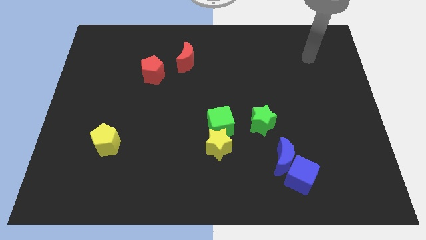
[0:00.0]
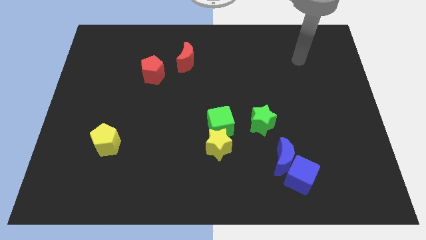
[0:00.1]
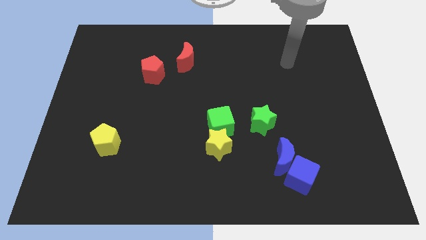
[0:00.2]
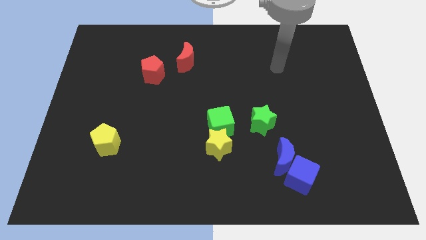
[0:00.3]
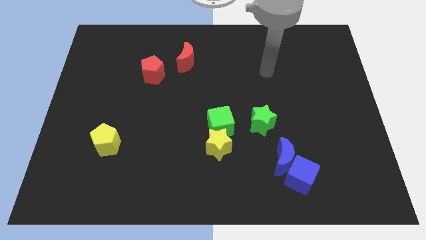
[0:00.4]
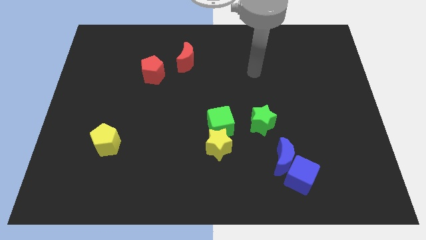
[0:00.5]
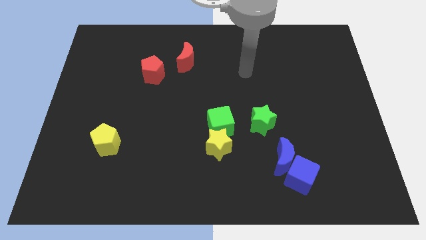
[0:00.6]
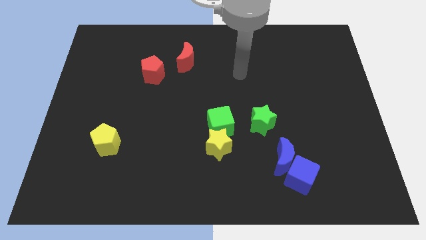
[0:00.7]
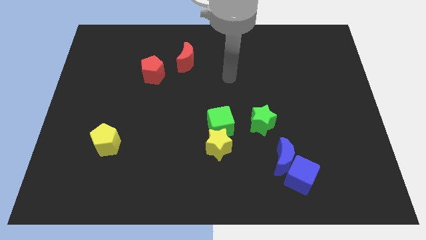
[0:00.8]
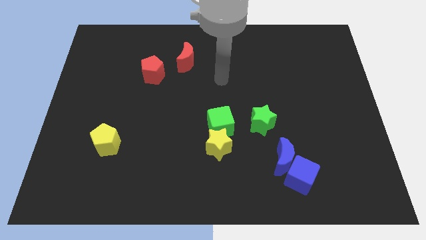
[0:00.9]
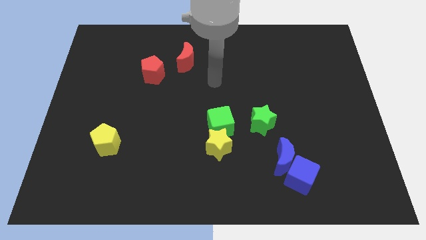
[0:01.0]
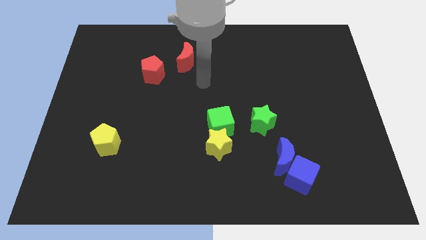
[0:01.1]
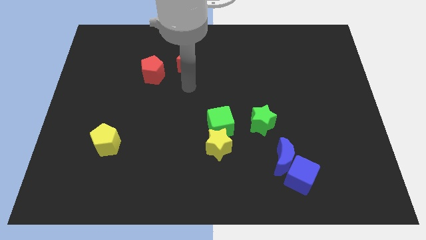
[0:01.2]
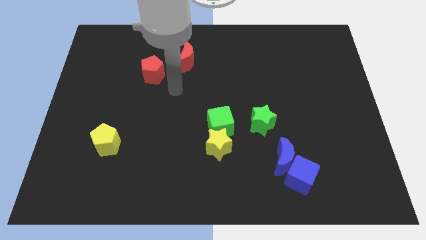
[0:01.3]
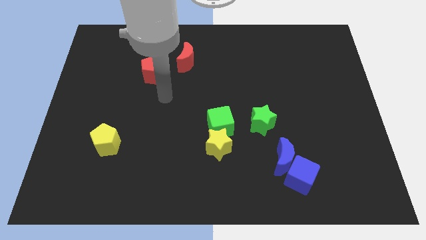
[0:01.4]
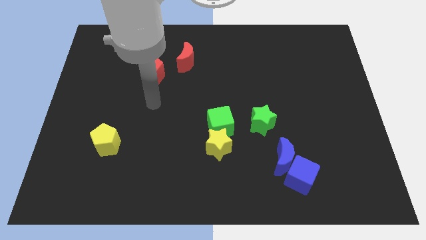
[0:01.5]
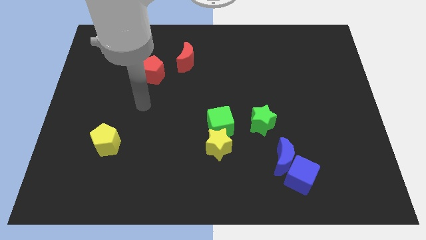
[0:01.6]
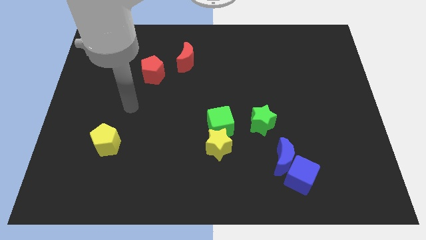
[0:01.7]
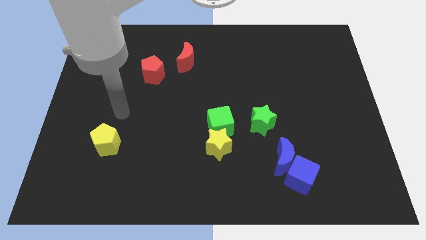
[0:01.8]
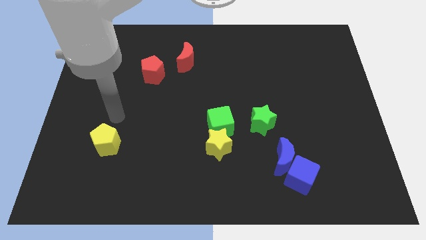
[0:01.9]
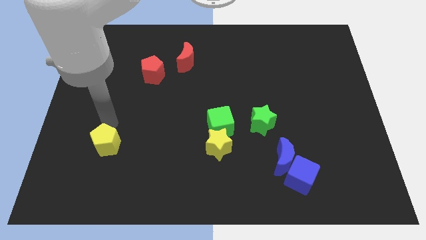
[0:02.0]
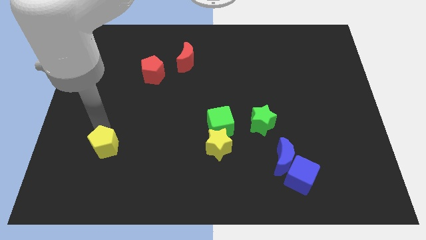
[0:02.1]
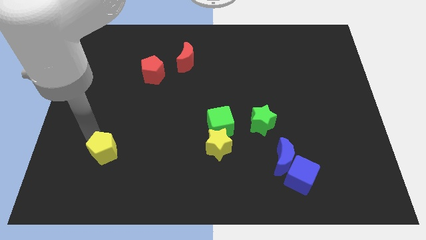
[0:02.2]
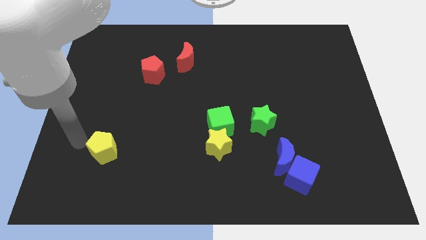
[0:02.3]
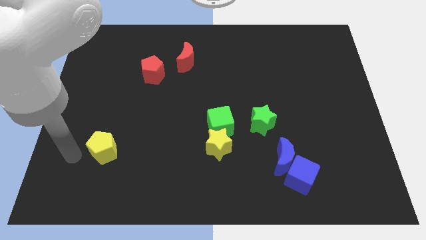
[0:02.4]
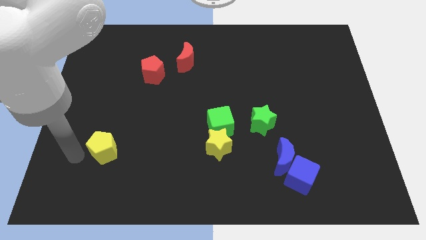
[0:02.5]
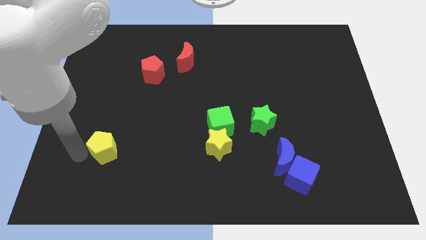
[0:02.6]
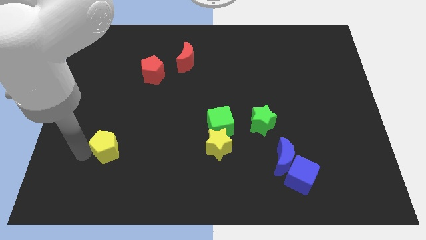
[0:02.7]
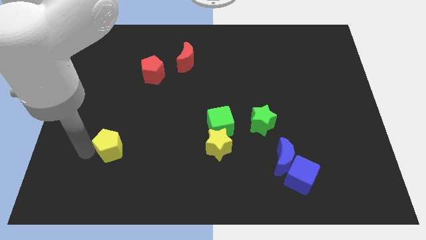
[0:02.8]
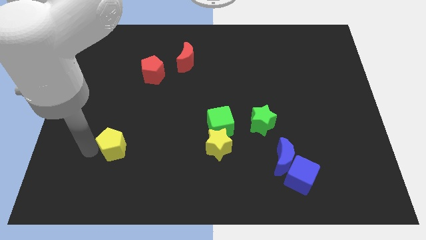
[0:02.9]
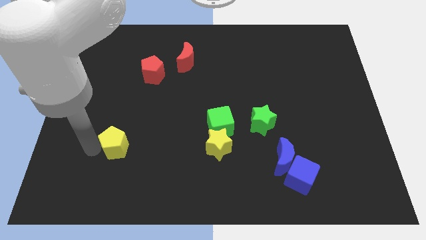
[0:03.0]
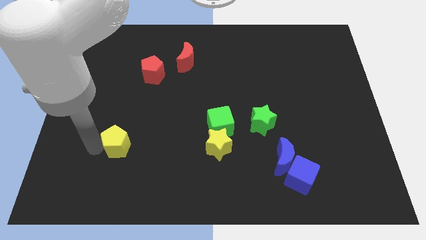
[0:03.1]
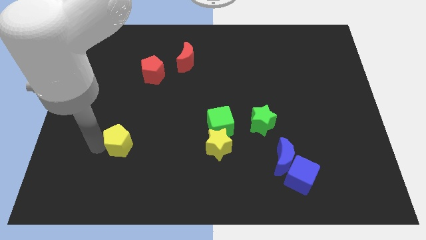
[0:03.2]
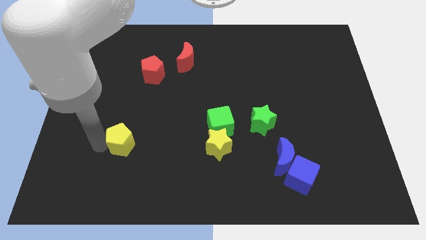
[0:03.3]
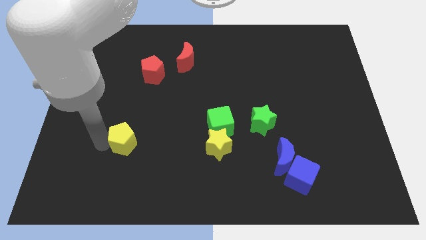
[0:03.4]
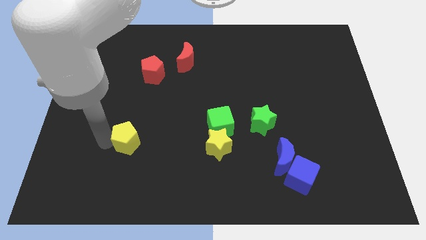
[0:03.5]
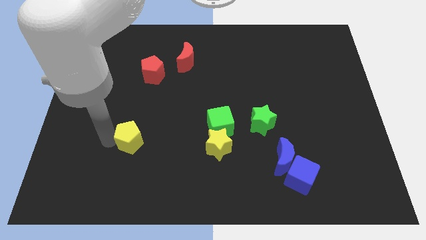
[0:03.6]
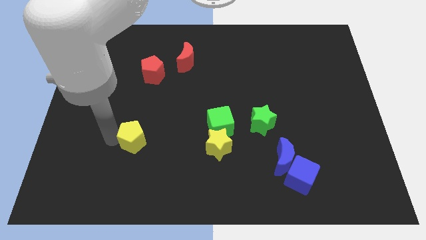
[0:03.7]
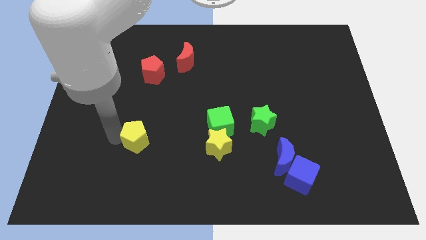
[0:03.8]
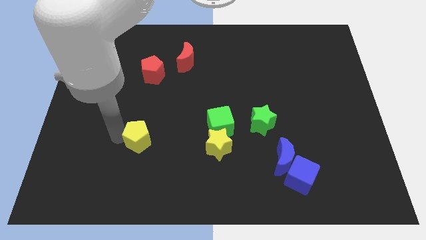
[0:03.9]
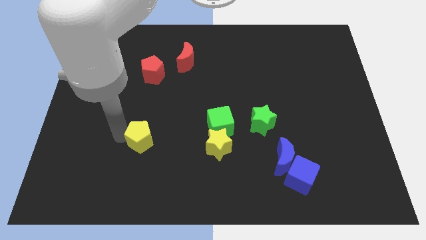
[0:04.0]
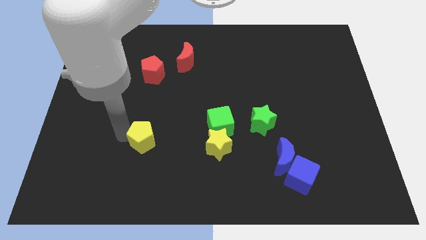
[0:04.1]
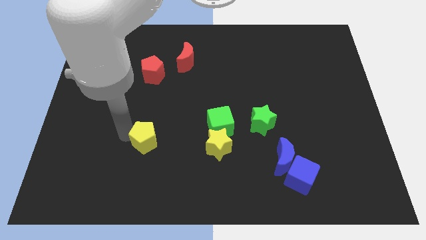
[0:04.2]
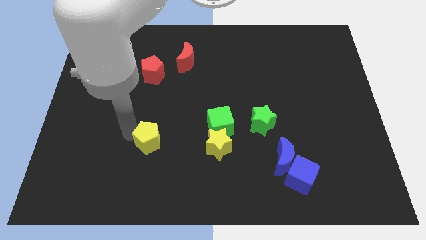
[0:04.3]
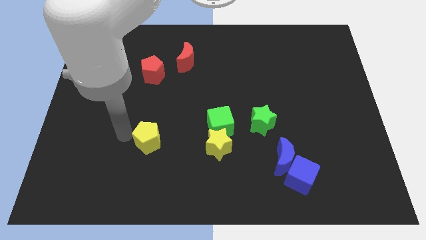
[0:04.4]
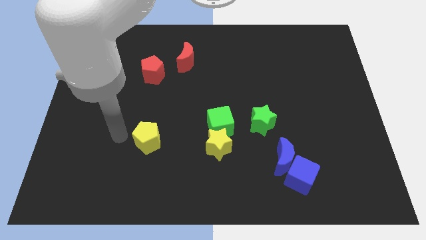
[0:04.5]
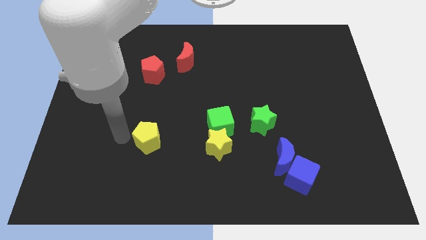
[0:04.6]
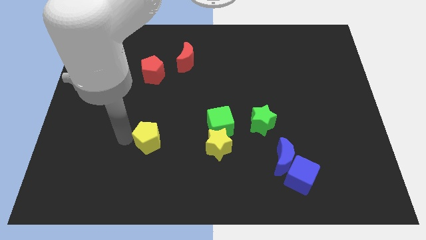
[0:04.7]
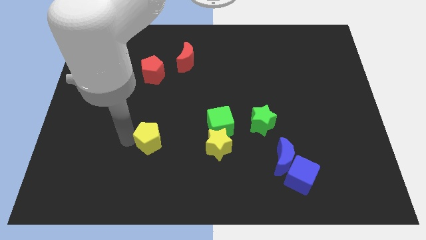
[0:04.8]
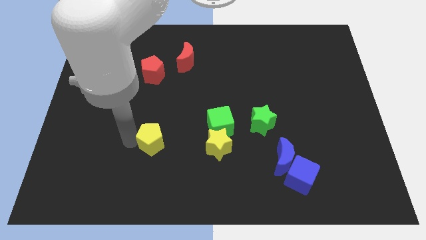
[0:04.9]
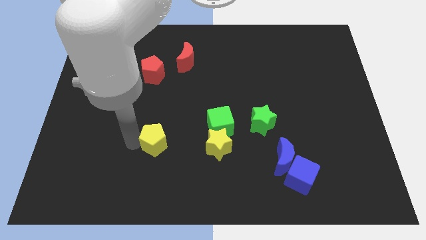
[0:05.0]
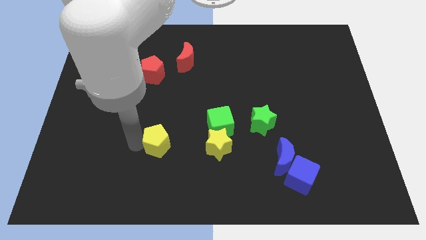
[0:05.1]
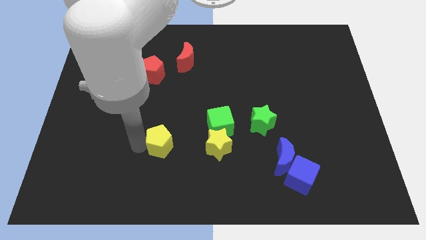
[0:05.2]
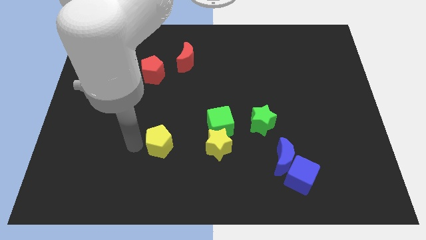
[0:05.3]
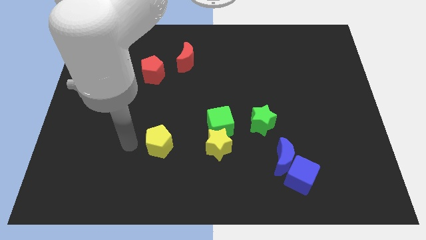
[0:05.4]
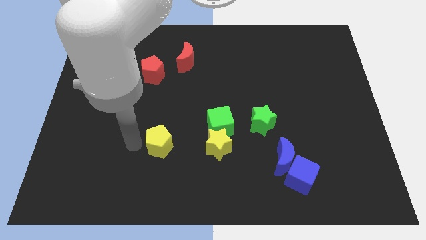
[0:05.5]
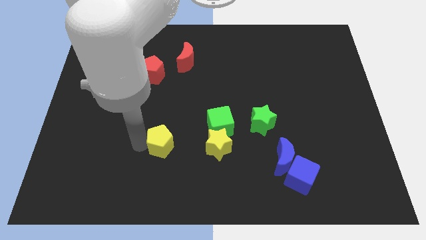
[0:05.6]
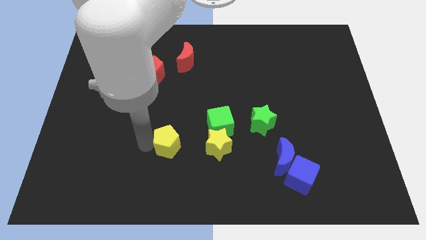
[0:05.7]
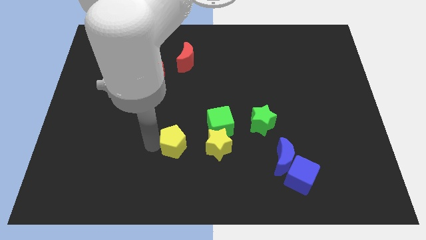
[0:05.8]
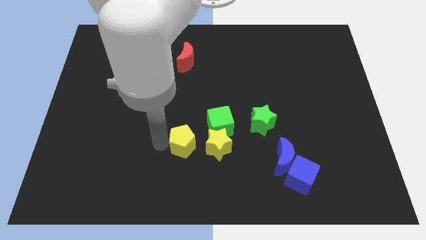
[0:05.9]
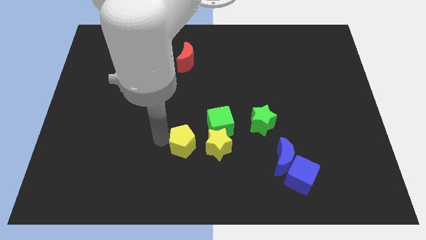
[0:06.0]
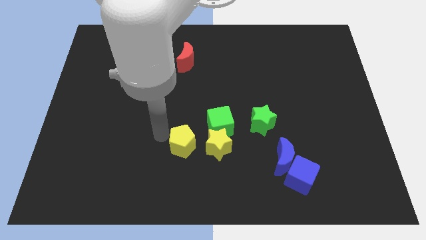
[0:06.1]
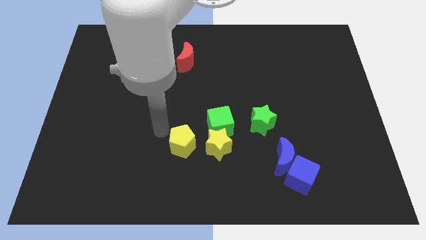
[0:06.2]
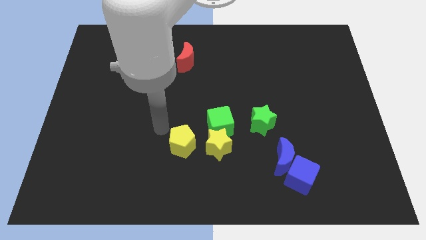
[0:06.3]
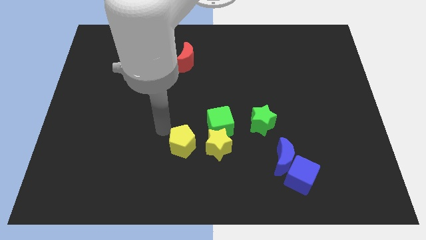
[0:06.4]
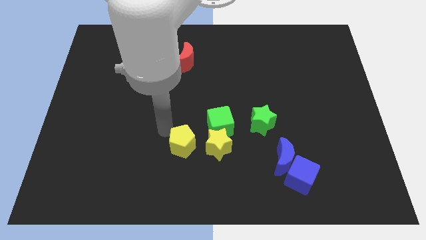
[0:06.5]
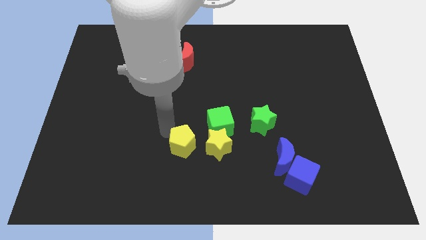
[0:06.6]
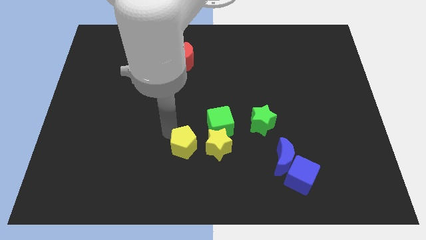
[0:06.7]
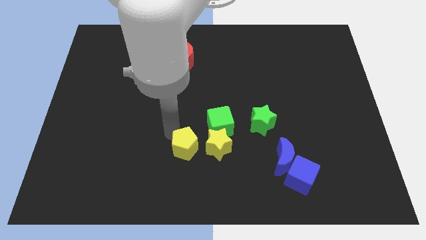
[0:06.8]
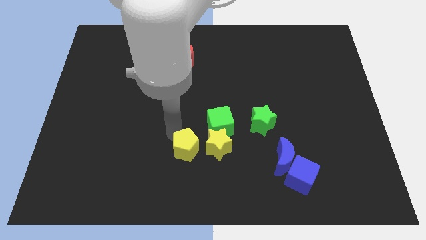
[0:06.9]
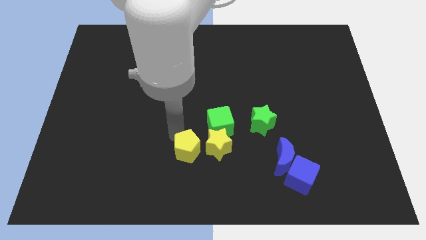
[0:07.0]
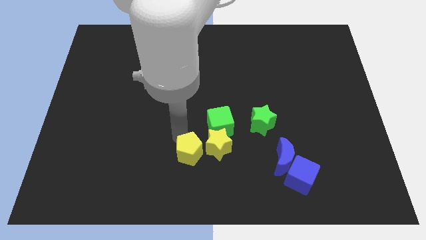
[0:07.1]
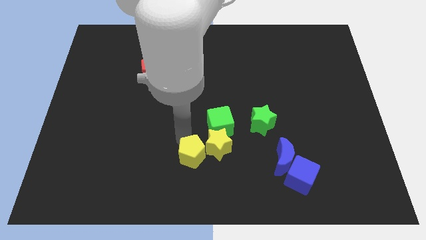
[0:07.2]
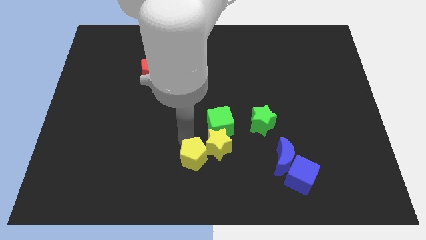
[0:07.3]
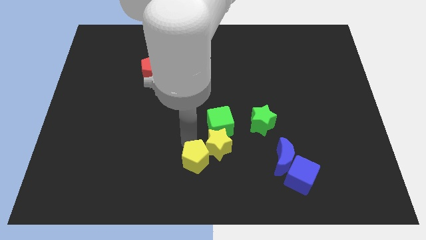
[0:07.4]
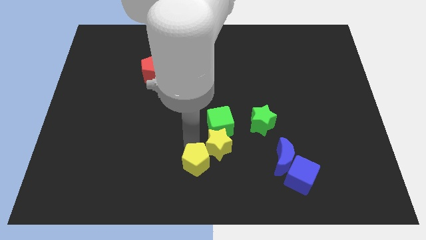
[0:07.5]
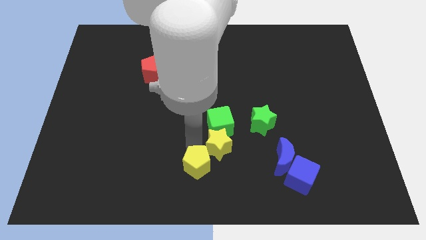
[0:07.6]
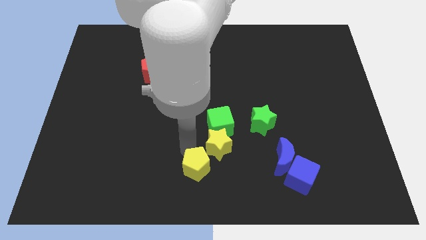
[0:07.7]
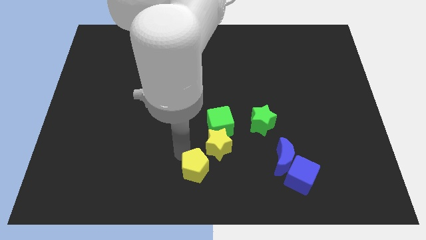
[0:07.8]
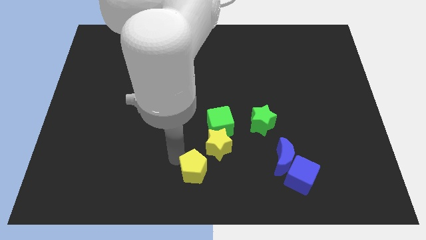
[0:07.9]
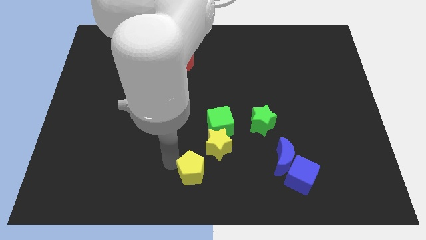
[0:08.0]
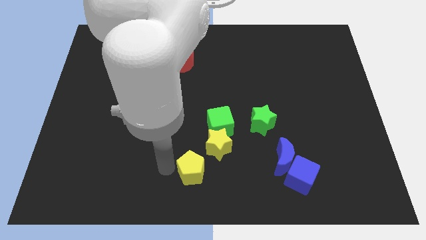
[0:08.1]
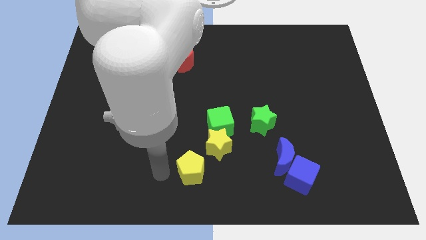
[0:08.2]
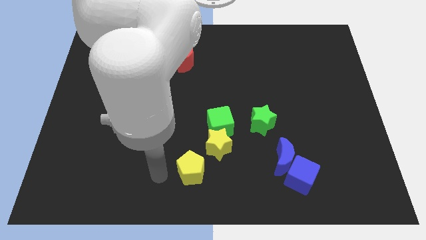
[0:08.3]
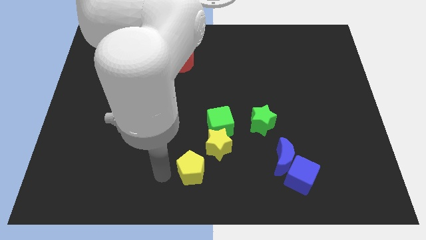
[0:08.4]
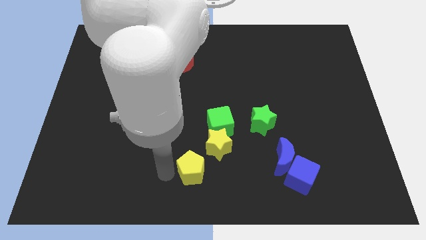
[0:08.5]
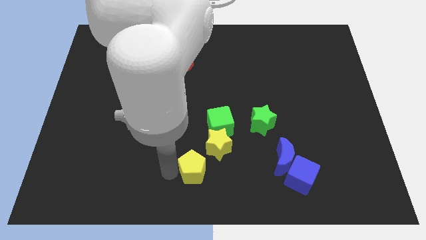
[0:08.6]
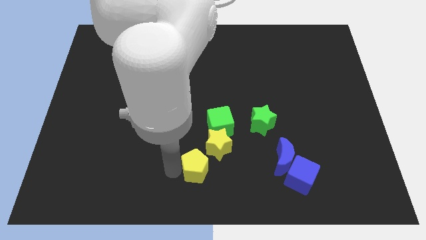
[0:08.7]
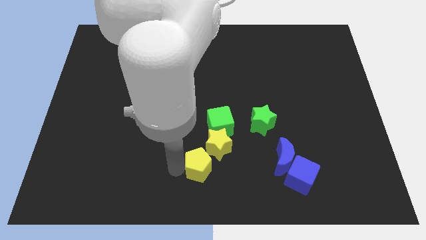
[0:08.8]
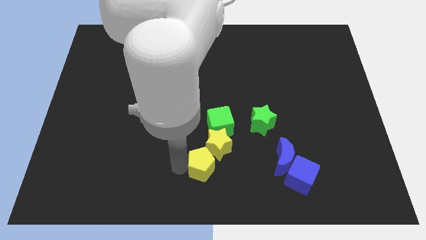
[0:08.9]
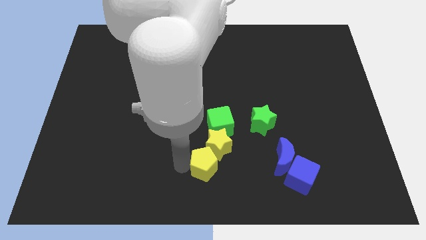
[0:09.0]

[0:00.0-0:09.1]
slide the yellow pentagon right

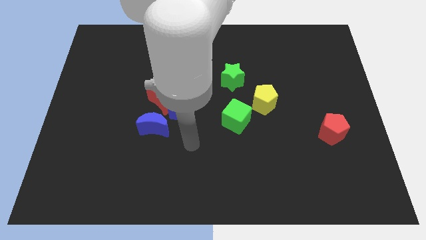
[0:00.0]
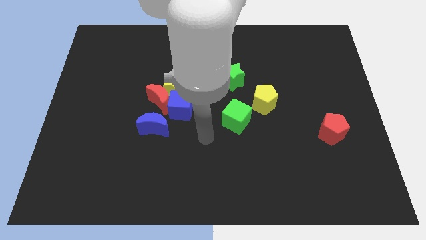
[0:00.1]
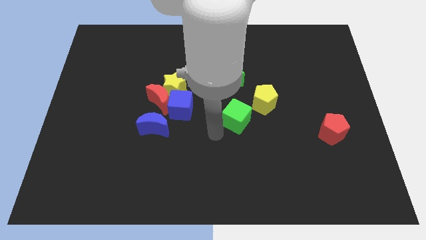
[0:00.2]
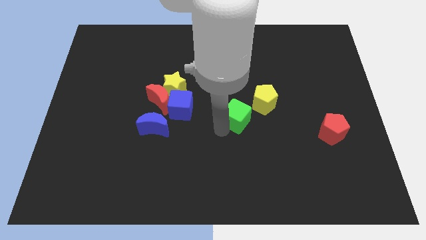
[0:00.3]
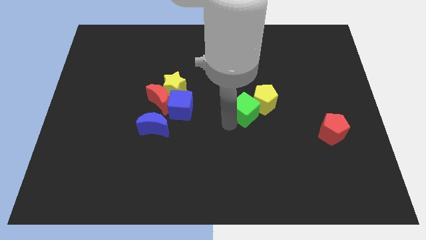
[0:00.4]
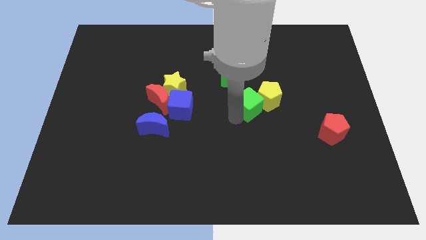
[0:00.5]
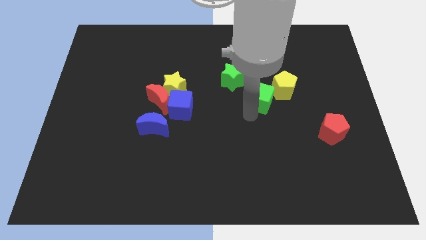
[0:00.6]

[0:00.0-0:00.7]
push the yellow pentagon a bit diagonally up and to the right
